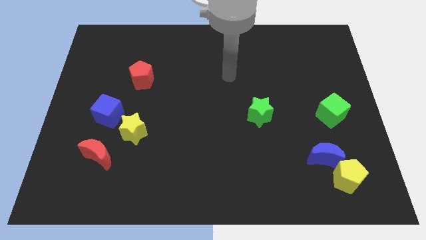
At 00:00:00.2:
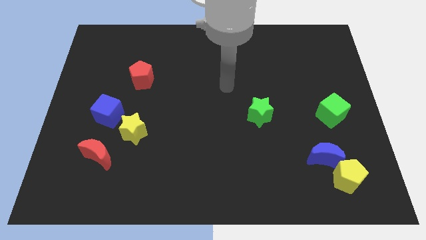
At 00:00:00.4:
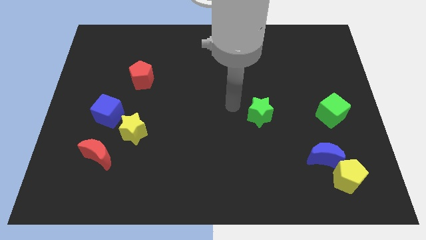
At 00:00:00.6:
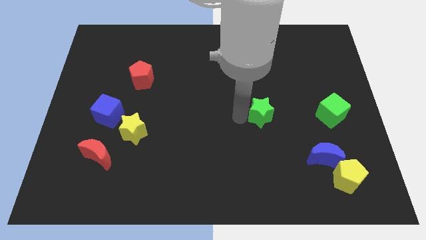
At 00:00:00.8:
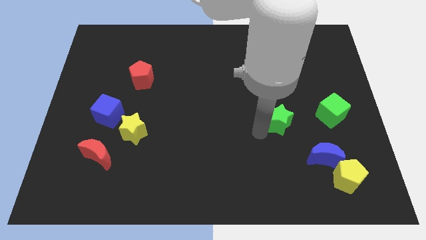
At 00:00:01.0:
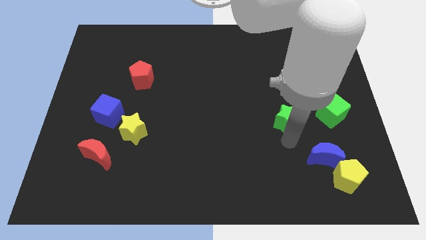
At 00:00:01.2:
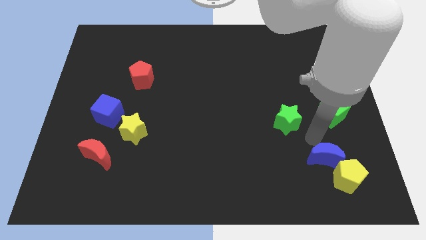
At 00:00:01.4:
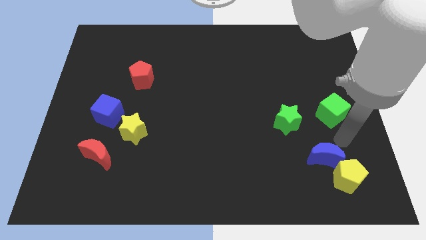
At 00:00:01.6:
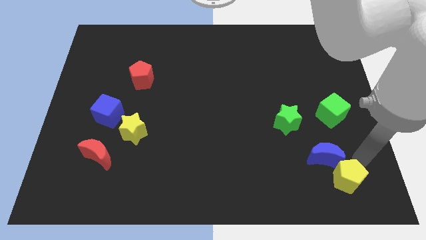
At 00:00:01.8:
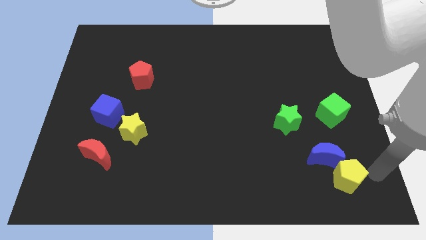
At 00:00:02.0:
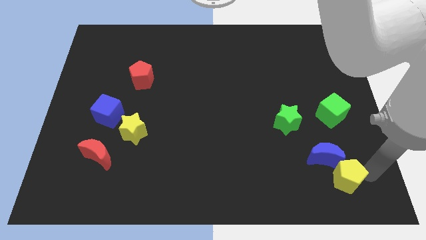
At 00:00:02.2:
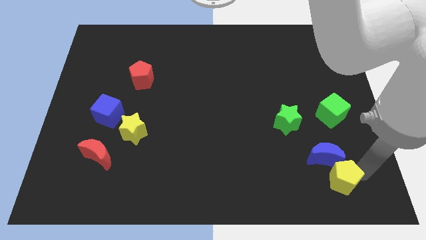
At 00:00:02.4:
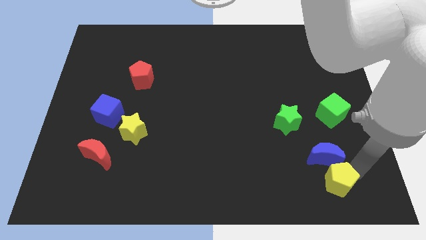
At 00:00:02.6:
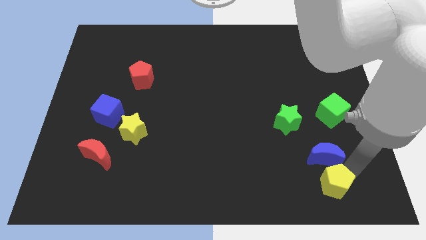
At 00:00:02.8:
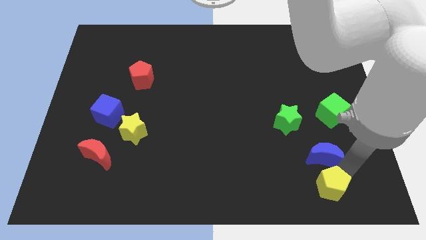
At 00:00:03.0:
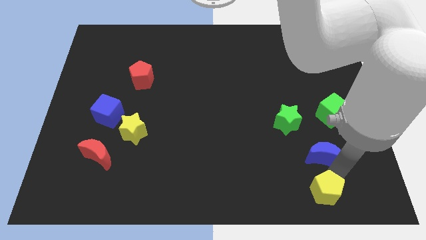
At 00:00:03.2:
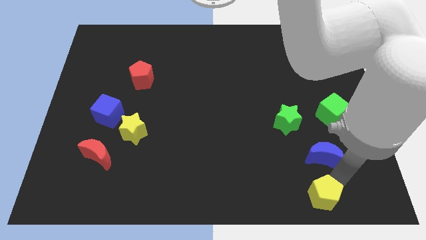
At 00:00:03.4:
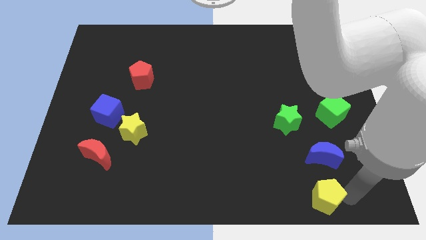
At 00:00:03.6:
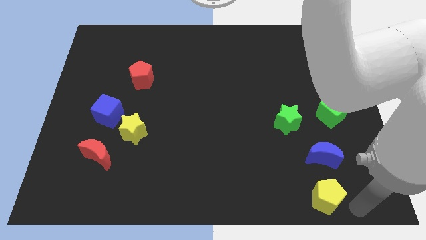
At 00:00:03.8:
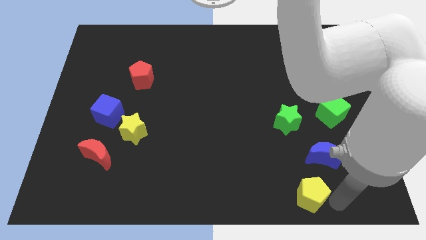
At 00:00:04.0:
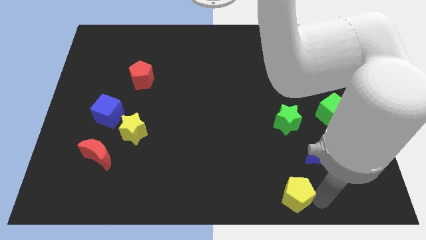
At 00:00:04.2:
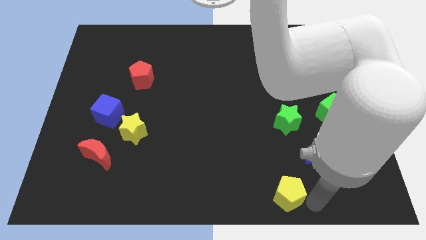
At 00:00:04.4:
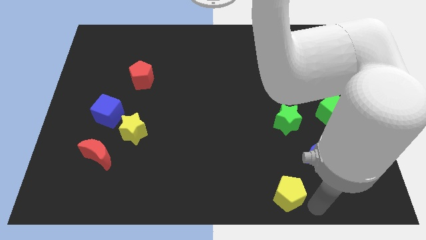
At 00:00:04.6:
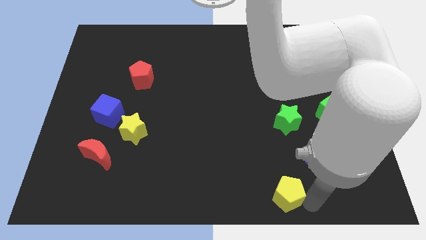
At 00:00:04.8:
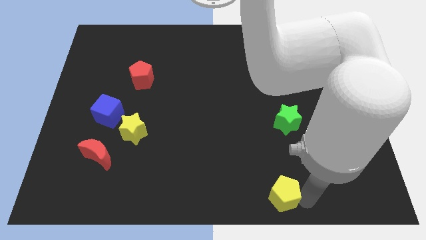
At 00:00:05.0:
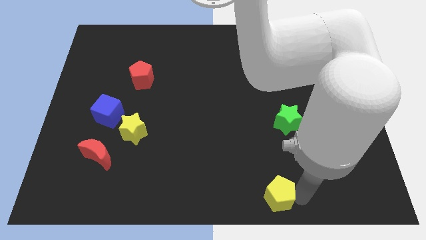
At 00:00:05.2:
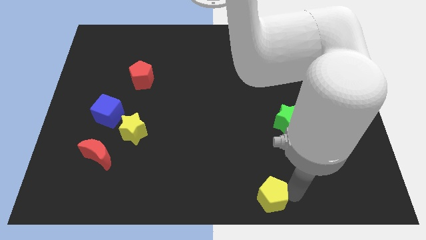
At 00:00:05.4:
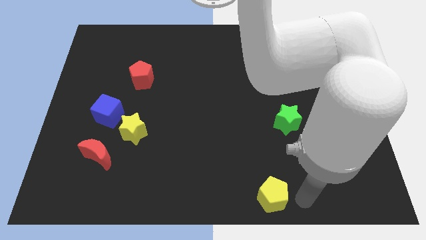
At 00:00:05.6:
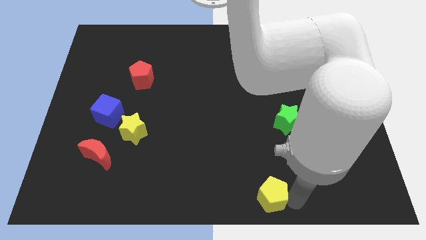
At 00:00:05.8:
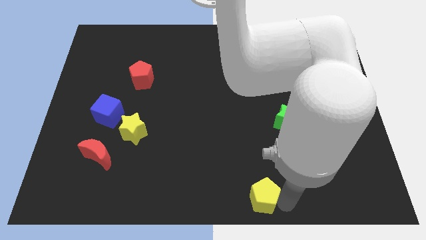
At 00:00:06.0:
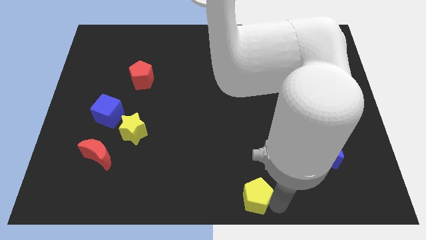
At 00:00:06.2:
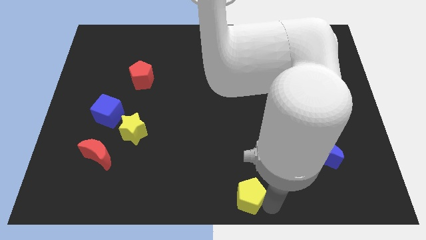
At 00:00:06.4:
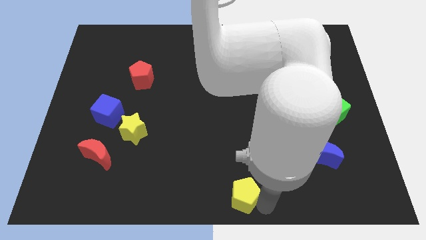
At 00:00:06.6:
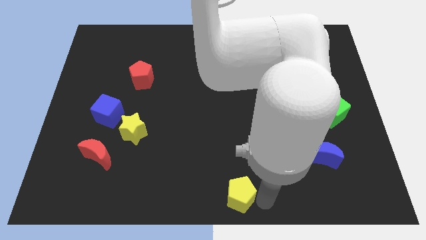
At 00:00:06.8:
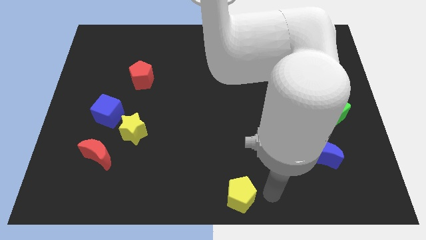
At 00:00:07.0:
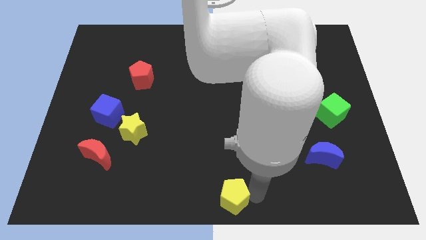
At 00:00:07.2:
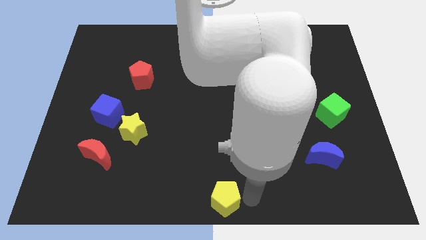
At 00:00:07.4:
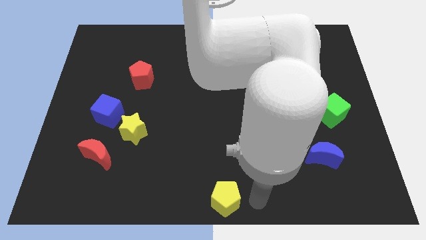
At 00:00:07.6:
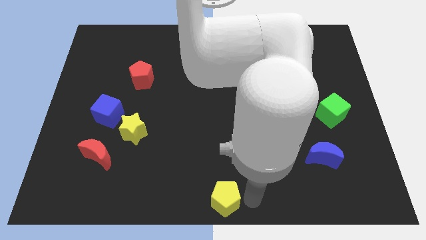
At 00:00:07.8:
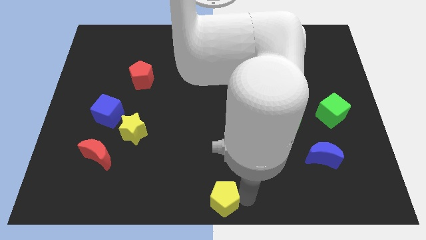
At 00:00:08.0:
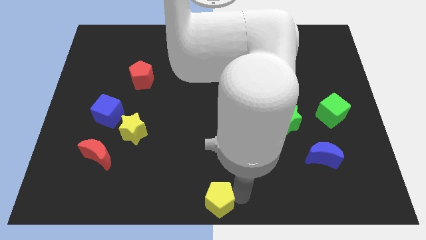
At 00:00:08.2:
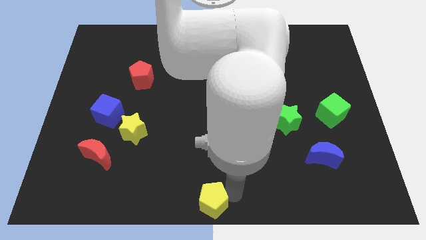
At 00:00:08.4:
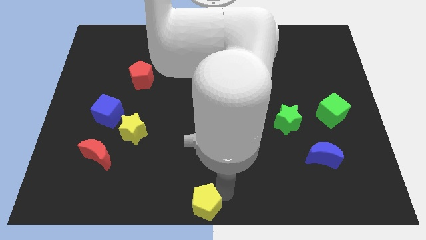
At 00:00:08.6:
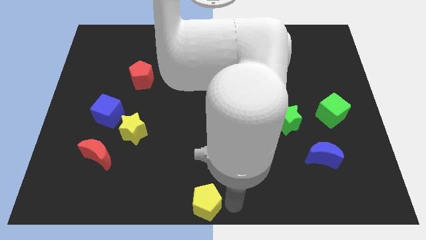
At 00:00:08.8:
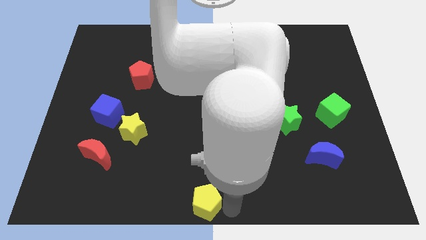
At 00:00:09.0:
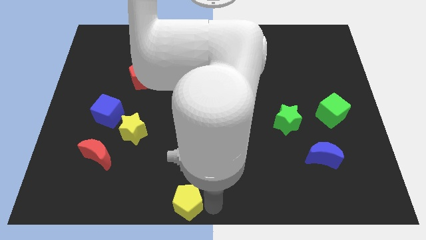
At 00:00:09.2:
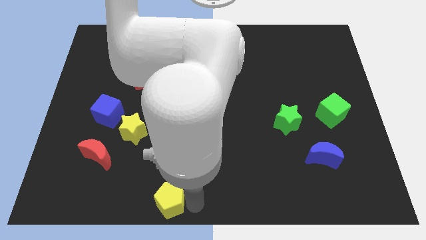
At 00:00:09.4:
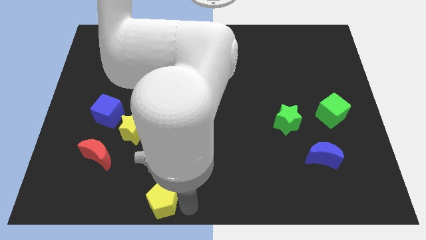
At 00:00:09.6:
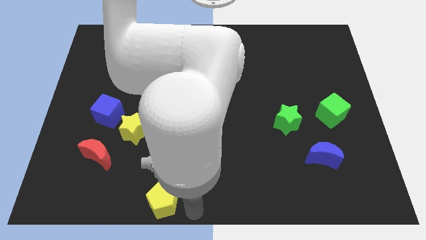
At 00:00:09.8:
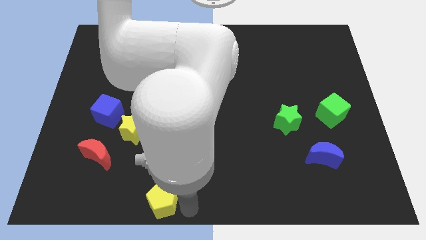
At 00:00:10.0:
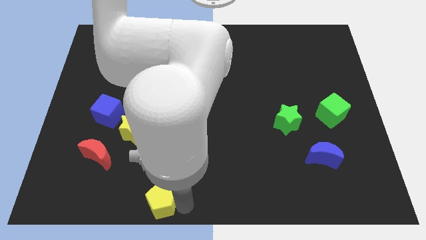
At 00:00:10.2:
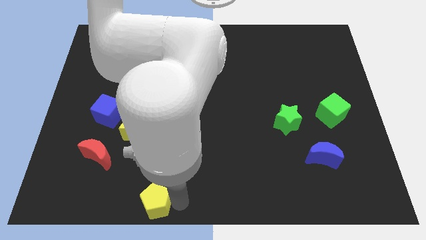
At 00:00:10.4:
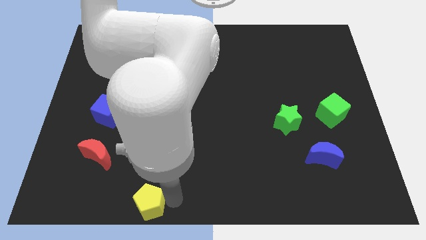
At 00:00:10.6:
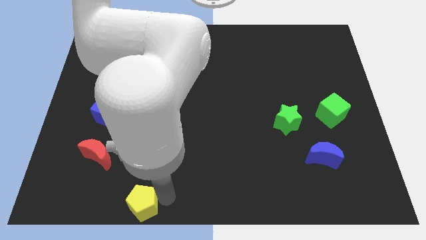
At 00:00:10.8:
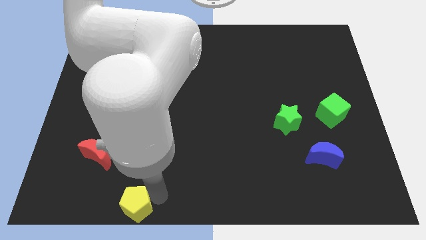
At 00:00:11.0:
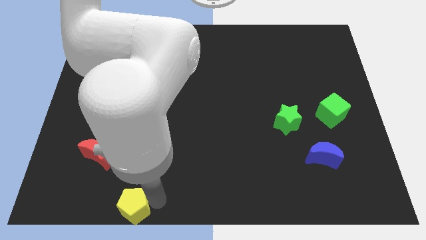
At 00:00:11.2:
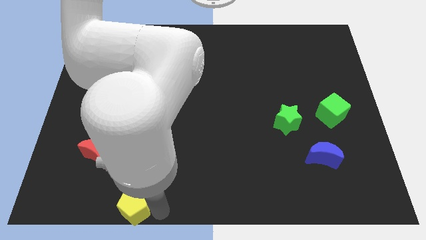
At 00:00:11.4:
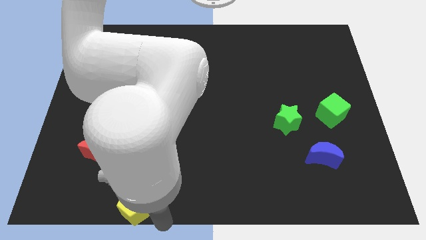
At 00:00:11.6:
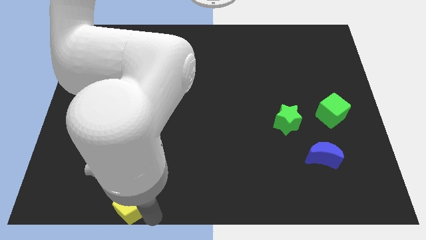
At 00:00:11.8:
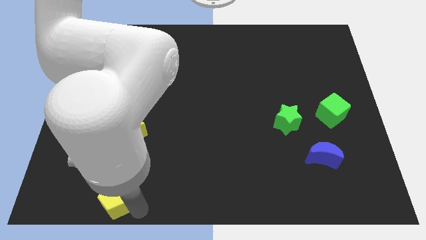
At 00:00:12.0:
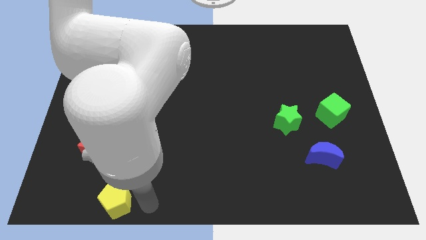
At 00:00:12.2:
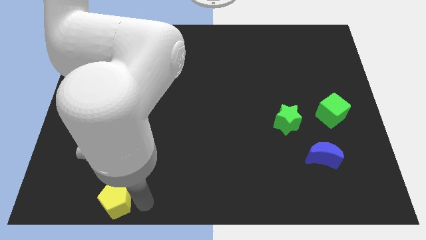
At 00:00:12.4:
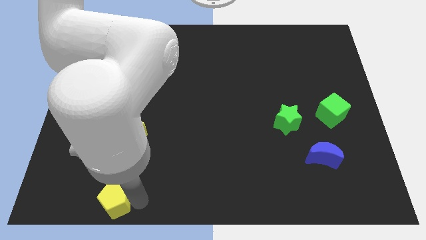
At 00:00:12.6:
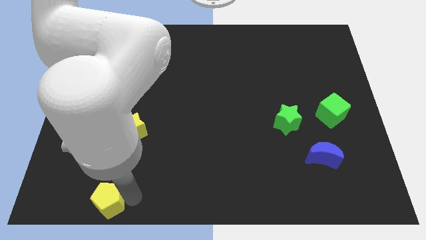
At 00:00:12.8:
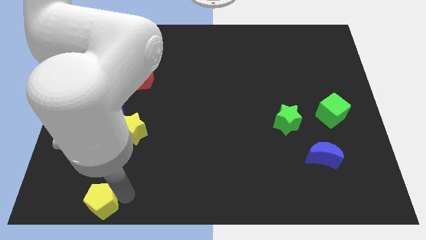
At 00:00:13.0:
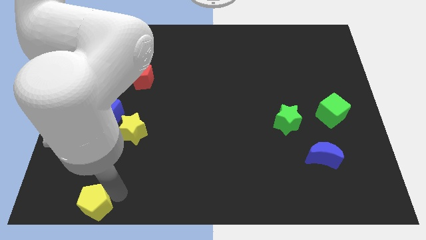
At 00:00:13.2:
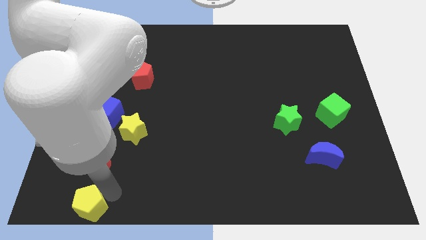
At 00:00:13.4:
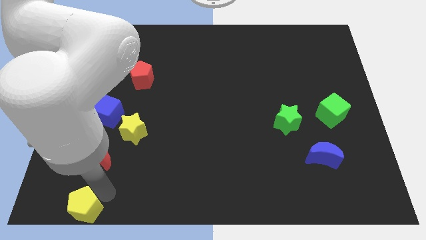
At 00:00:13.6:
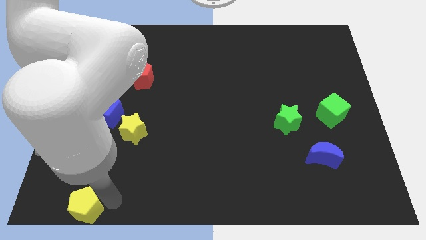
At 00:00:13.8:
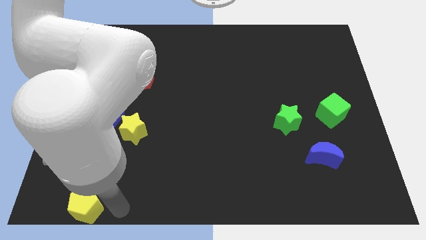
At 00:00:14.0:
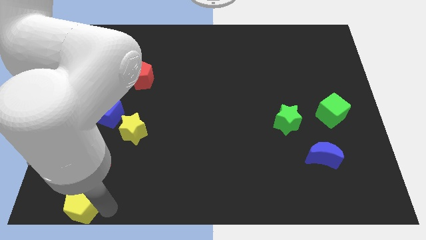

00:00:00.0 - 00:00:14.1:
slide the yellow pentagon to the bottom left
